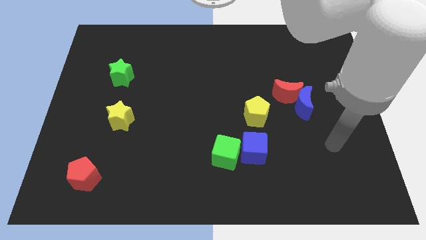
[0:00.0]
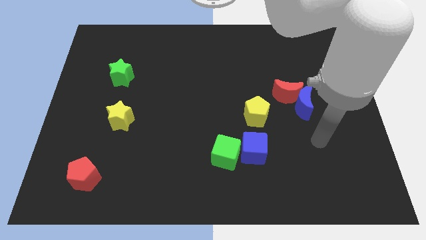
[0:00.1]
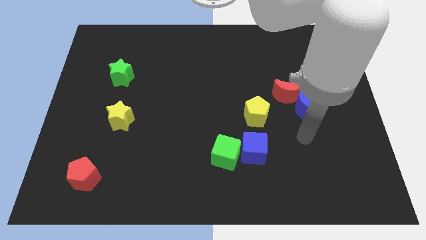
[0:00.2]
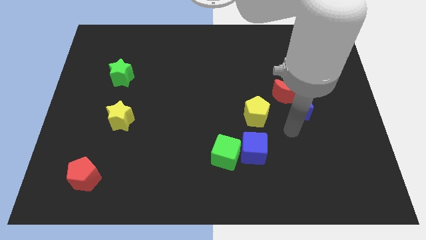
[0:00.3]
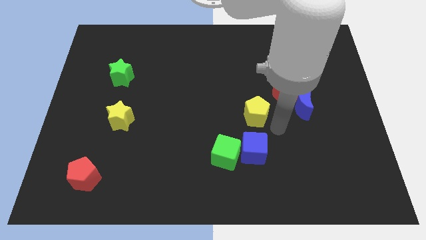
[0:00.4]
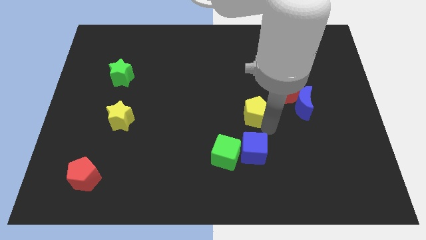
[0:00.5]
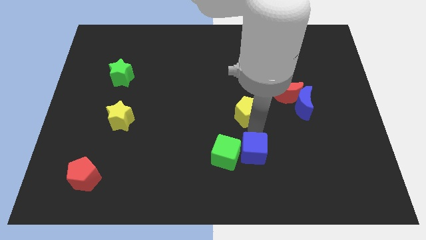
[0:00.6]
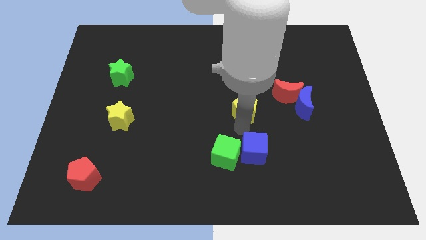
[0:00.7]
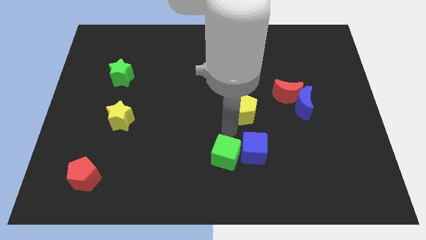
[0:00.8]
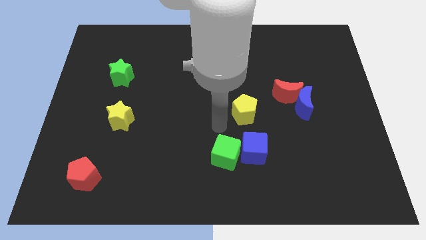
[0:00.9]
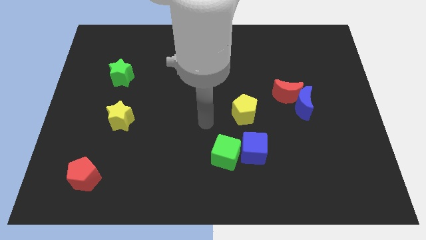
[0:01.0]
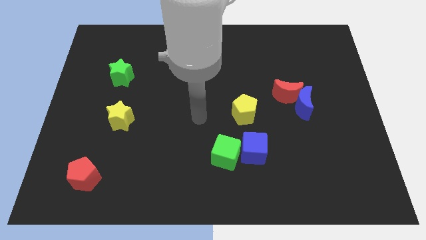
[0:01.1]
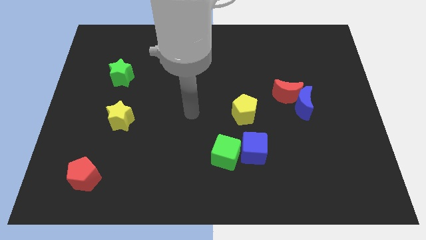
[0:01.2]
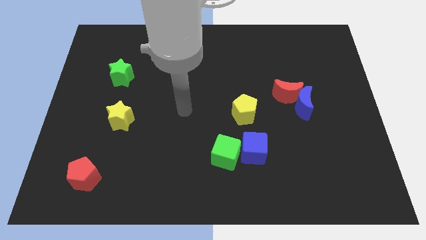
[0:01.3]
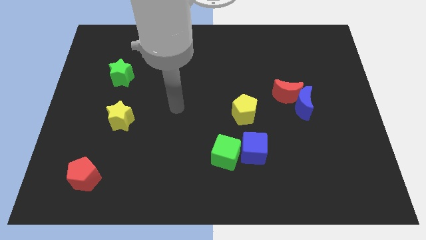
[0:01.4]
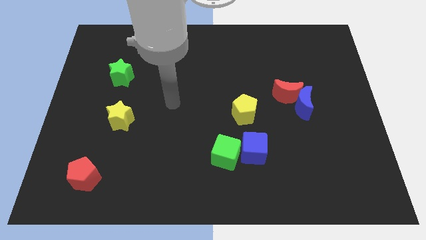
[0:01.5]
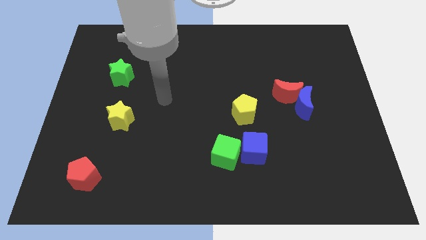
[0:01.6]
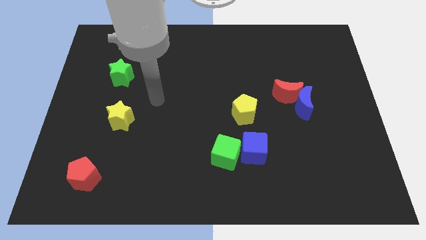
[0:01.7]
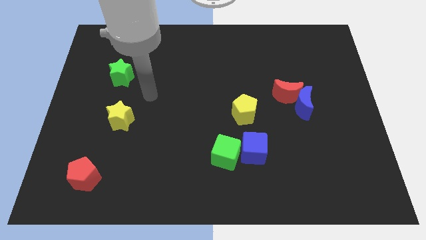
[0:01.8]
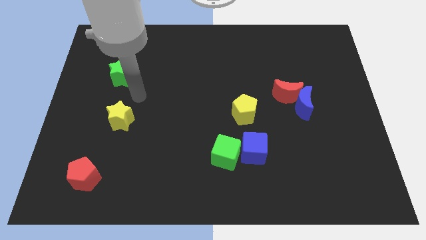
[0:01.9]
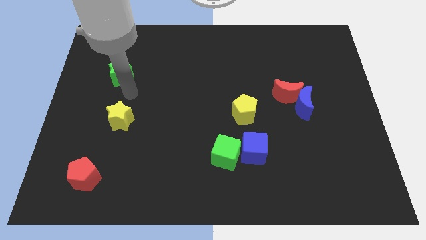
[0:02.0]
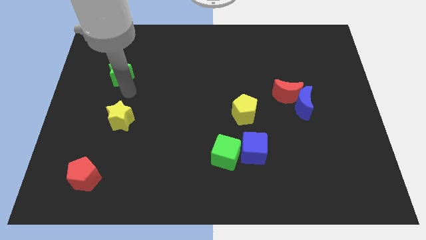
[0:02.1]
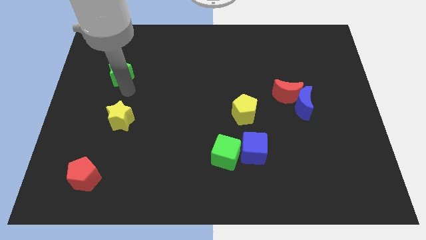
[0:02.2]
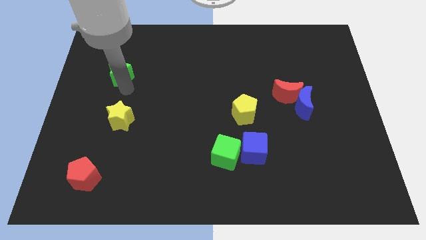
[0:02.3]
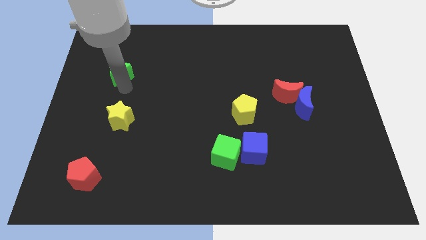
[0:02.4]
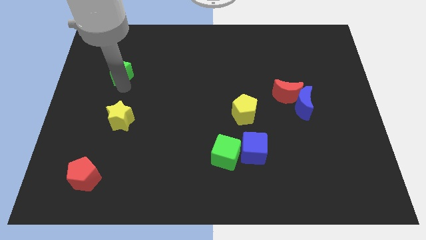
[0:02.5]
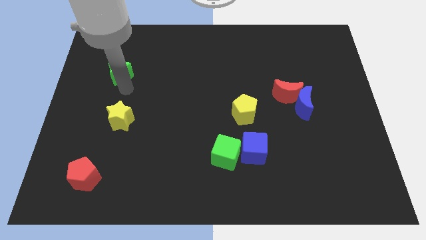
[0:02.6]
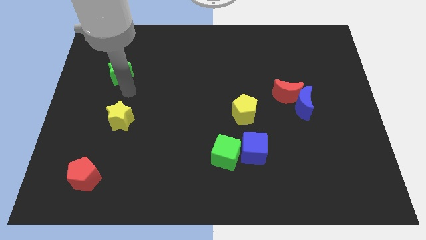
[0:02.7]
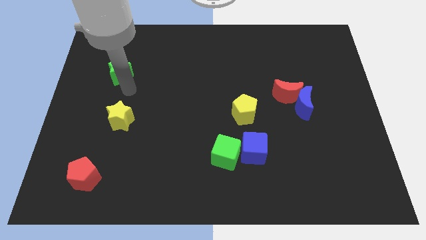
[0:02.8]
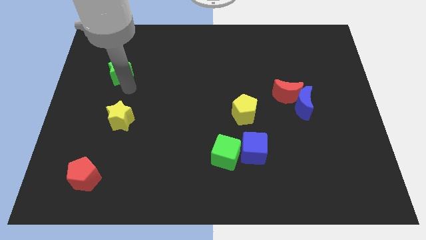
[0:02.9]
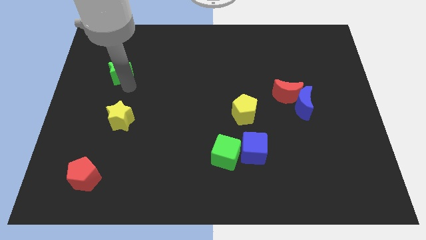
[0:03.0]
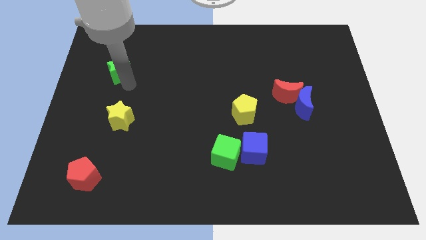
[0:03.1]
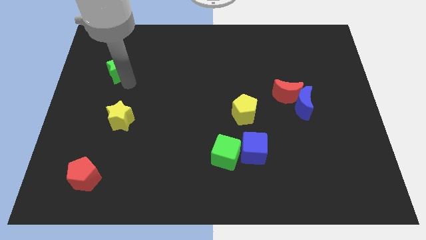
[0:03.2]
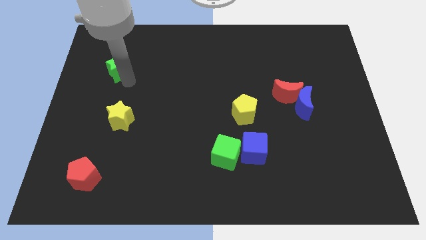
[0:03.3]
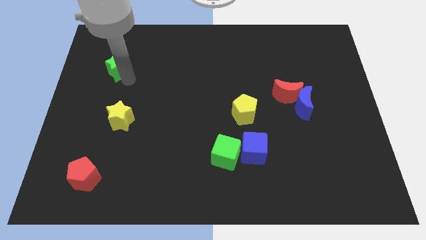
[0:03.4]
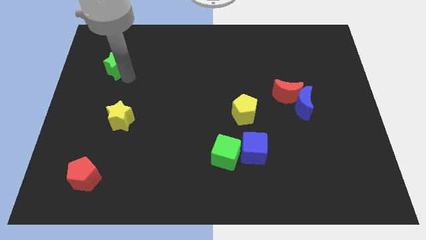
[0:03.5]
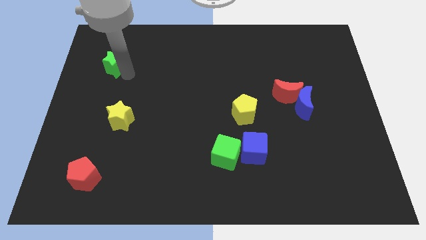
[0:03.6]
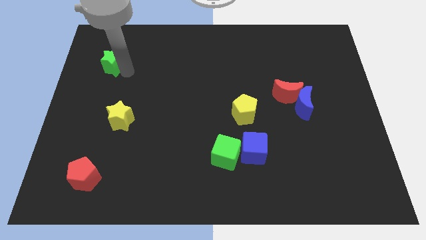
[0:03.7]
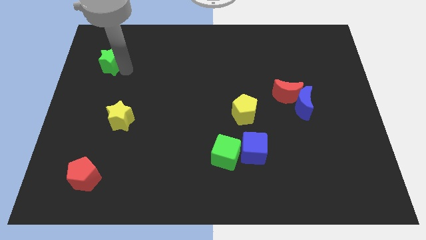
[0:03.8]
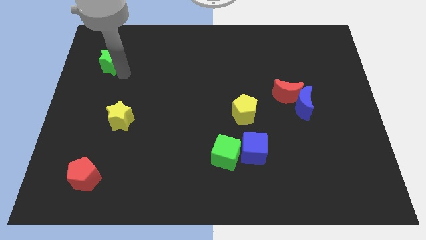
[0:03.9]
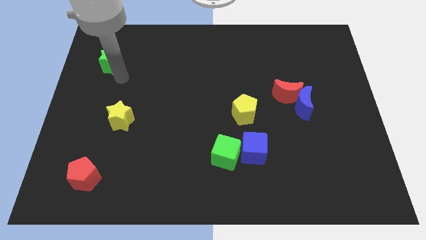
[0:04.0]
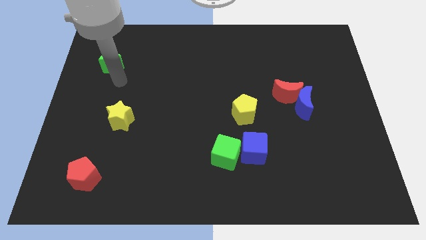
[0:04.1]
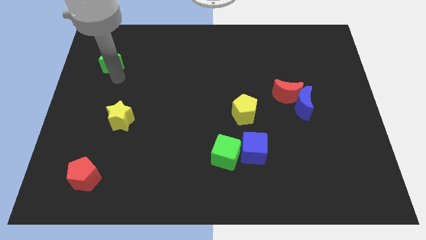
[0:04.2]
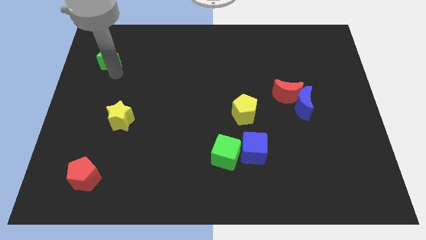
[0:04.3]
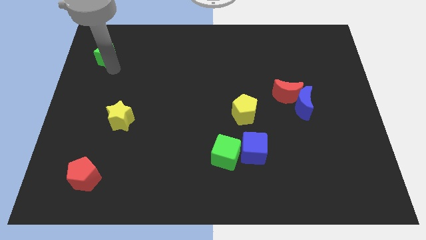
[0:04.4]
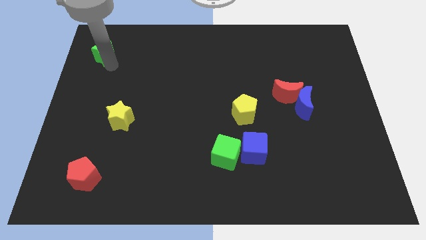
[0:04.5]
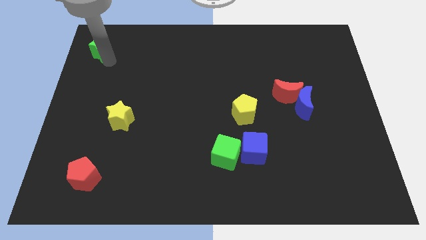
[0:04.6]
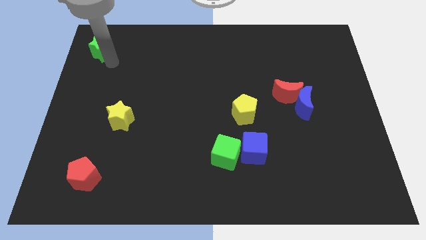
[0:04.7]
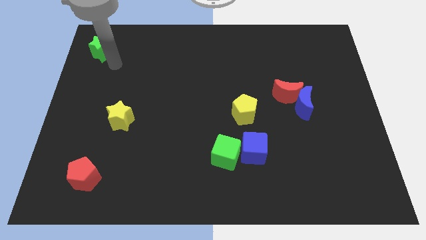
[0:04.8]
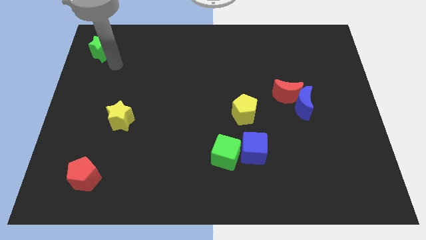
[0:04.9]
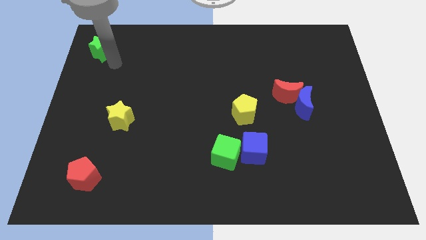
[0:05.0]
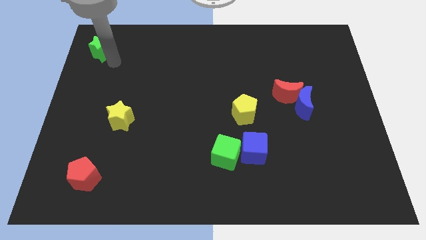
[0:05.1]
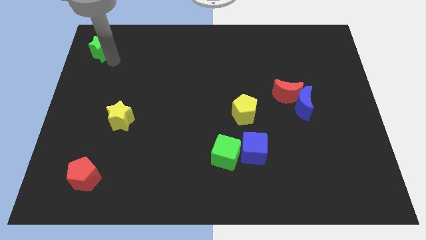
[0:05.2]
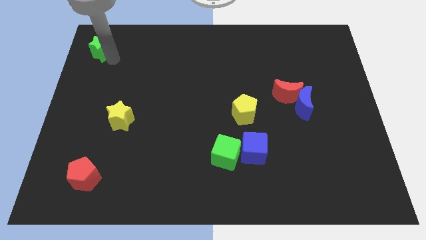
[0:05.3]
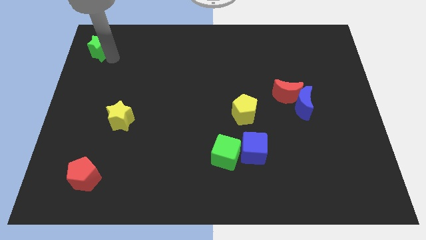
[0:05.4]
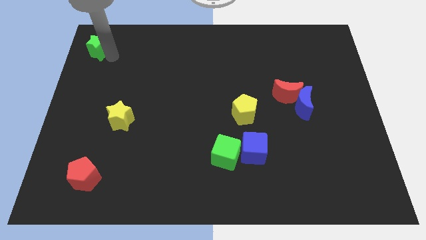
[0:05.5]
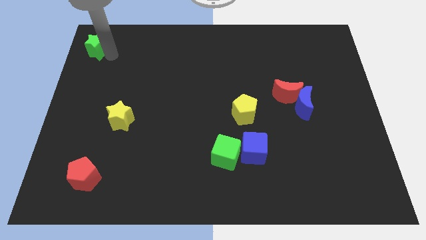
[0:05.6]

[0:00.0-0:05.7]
slide the green star to the top left of the board

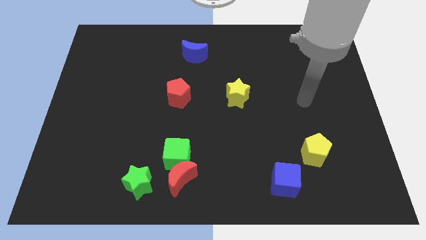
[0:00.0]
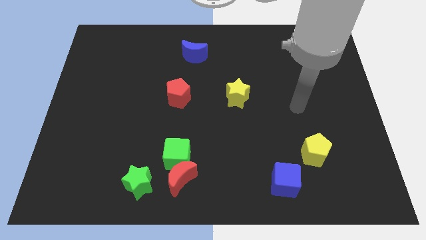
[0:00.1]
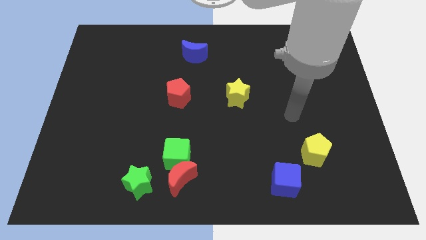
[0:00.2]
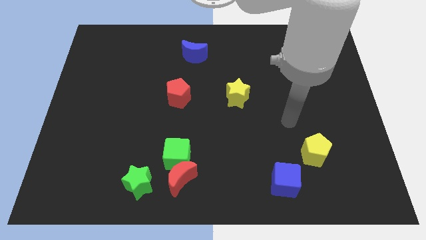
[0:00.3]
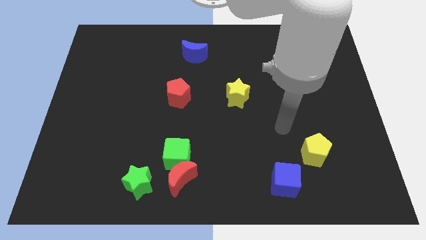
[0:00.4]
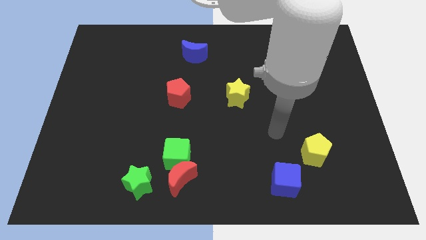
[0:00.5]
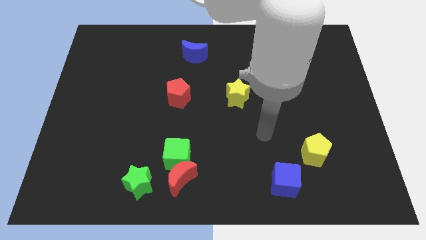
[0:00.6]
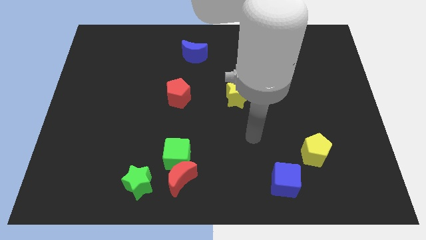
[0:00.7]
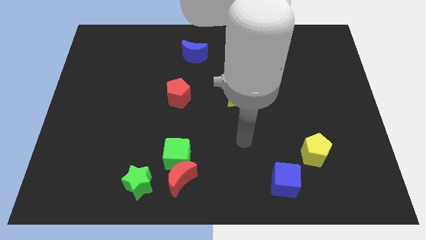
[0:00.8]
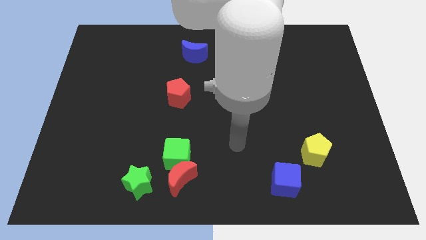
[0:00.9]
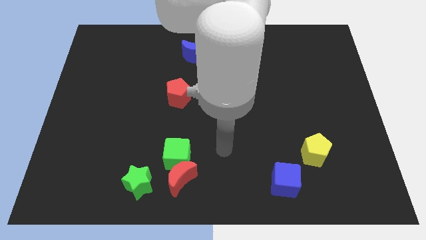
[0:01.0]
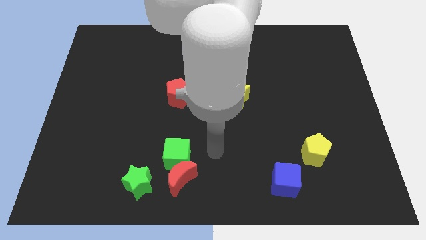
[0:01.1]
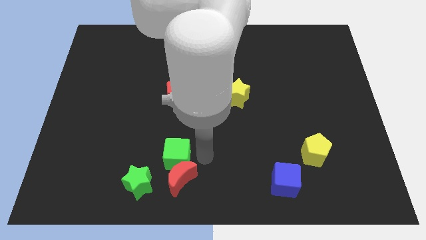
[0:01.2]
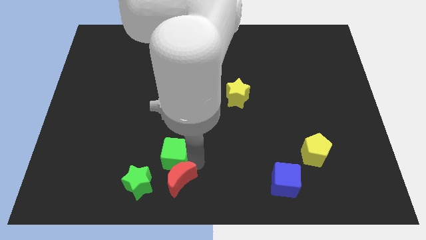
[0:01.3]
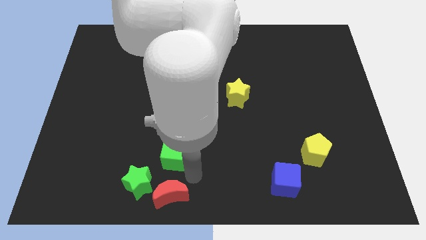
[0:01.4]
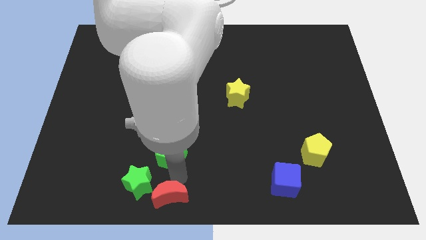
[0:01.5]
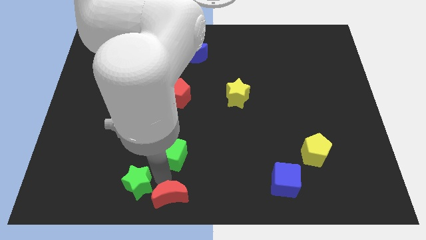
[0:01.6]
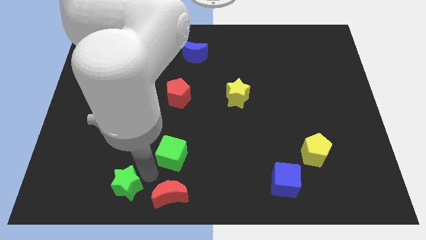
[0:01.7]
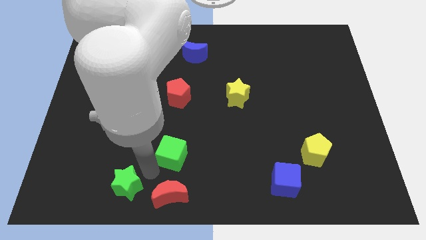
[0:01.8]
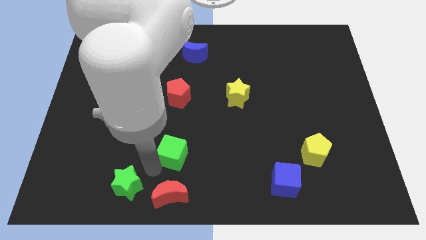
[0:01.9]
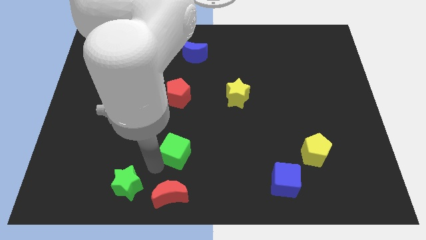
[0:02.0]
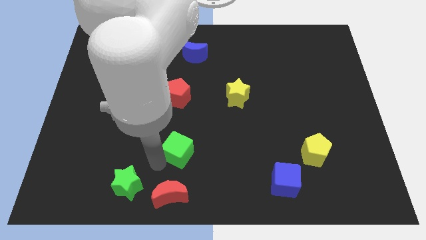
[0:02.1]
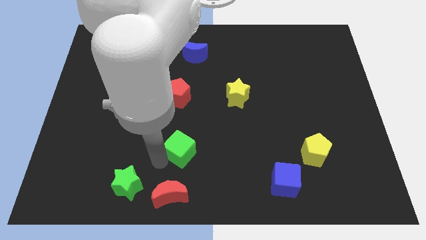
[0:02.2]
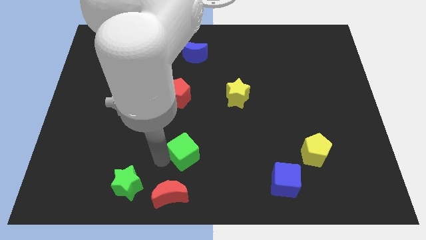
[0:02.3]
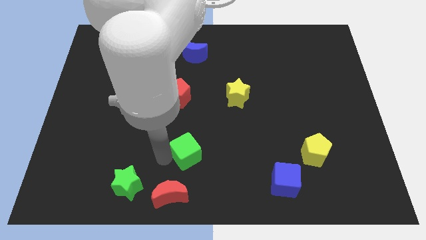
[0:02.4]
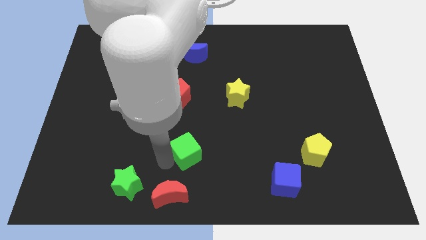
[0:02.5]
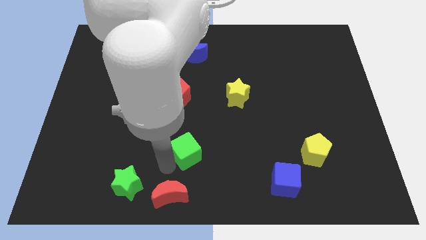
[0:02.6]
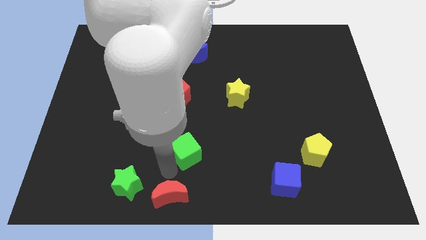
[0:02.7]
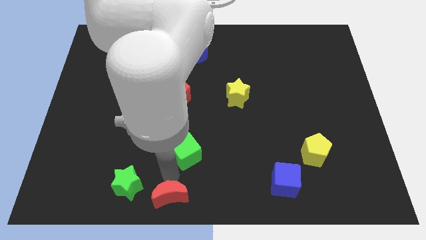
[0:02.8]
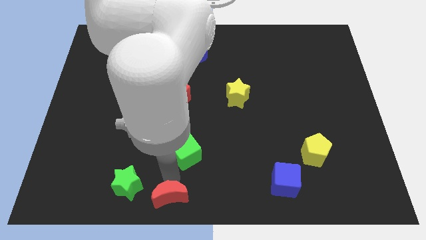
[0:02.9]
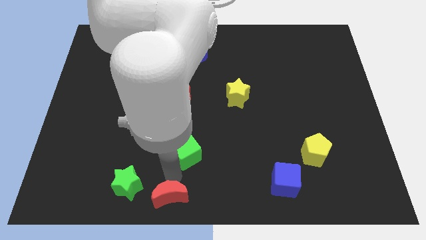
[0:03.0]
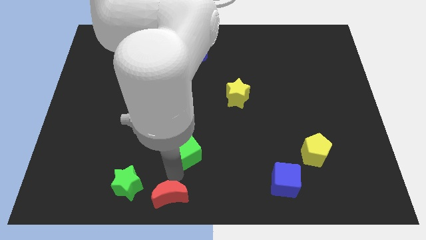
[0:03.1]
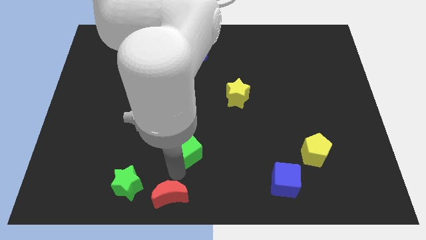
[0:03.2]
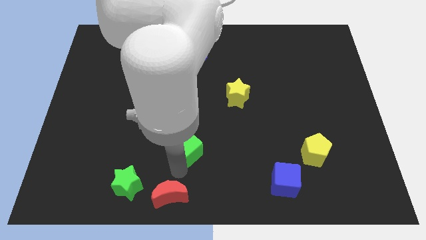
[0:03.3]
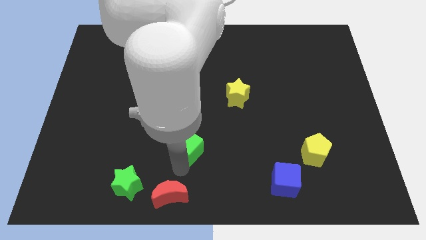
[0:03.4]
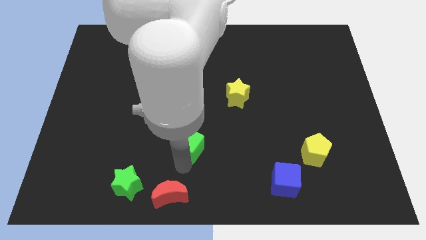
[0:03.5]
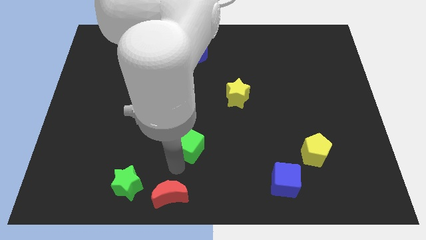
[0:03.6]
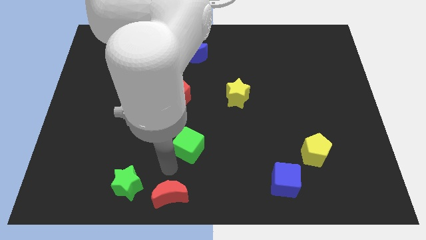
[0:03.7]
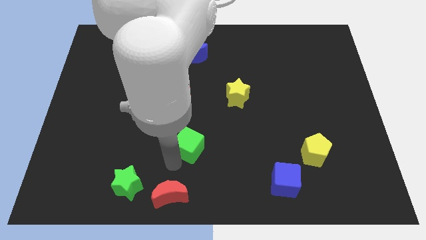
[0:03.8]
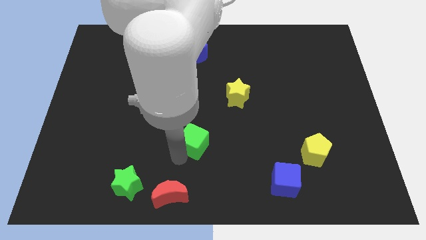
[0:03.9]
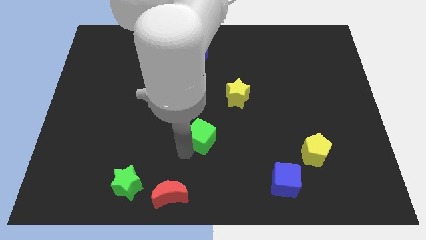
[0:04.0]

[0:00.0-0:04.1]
put the green cube to the middle
